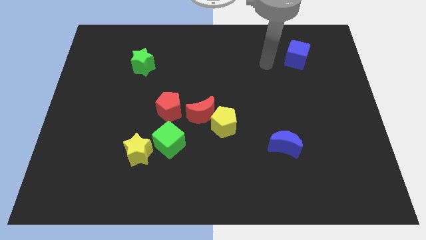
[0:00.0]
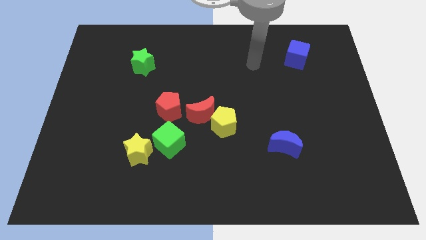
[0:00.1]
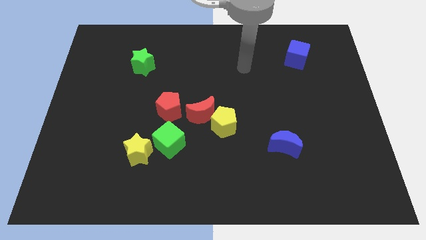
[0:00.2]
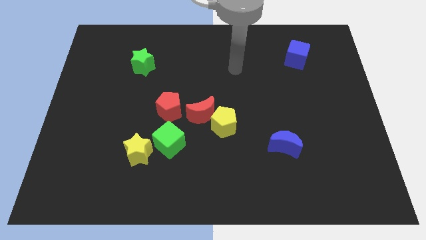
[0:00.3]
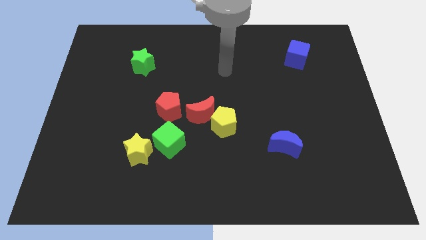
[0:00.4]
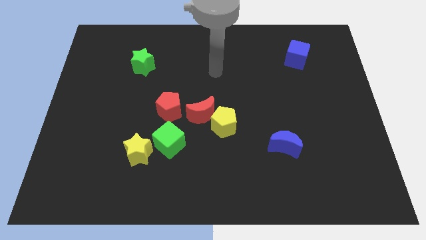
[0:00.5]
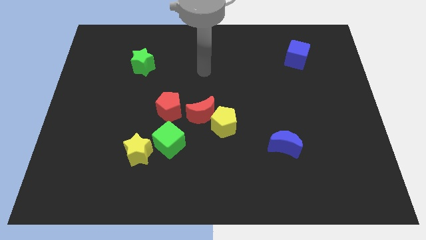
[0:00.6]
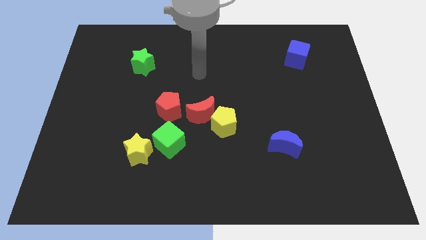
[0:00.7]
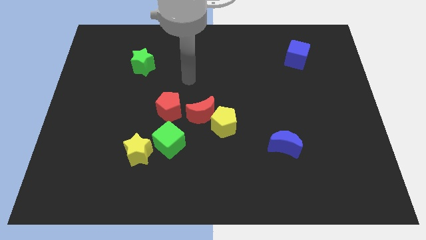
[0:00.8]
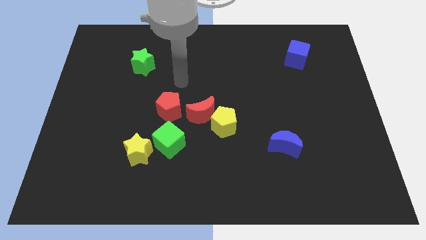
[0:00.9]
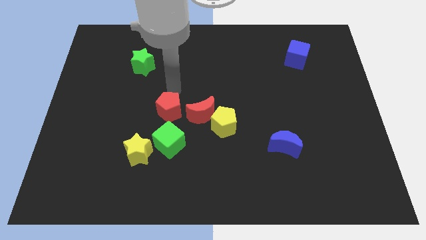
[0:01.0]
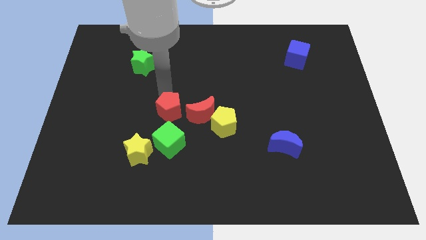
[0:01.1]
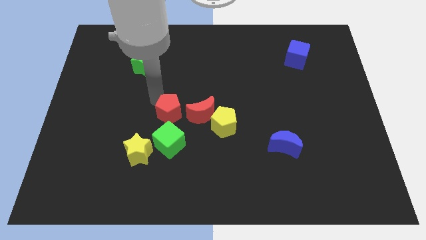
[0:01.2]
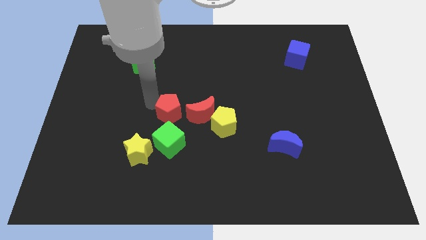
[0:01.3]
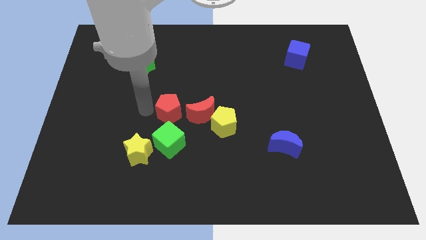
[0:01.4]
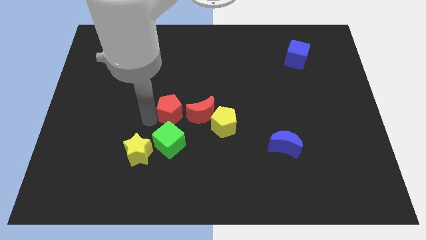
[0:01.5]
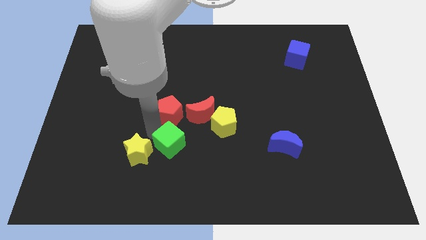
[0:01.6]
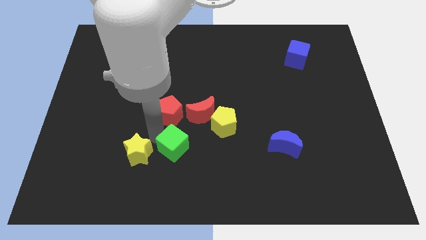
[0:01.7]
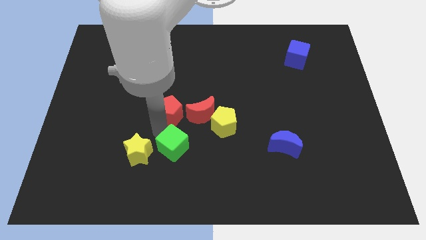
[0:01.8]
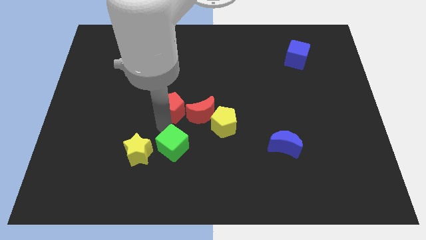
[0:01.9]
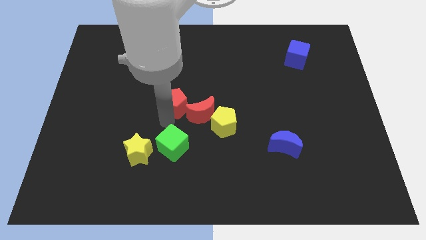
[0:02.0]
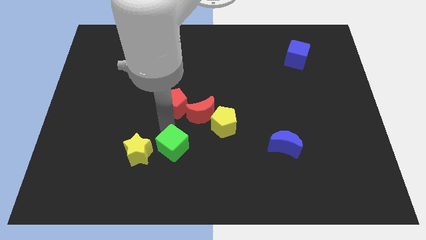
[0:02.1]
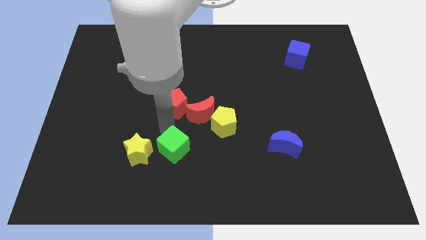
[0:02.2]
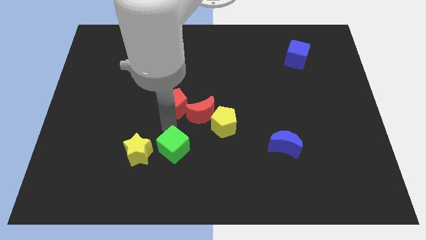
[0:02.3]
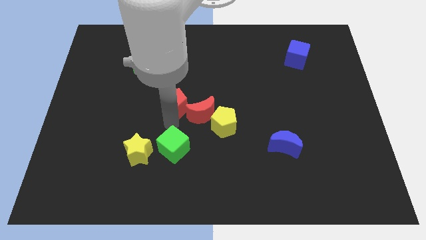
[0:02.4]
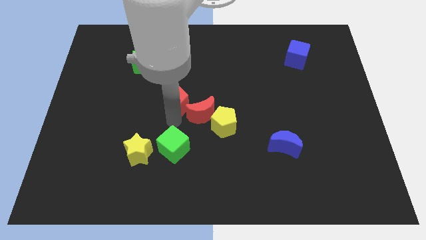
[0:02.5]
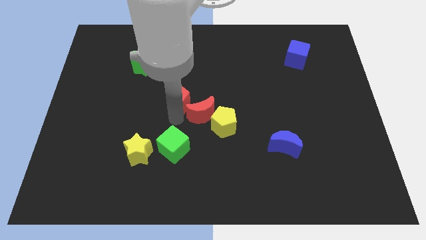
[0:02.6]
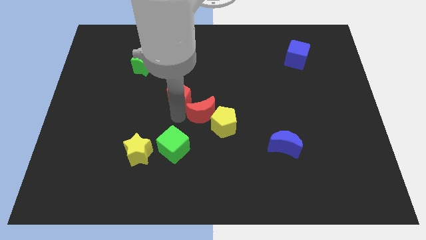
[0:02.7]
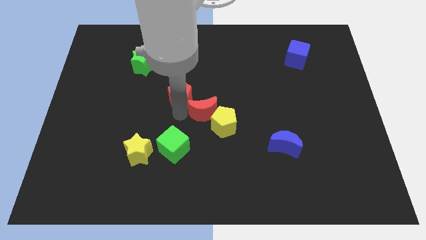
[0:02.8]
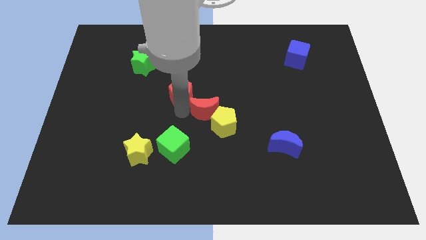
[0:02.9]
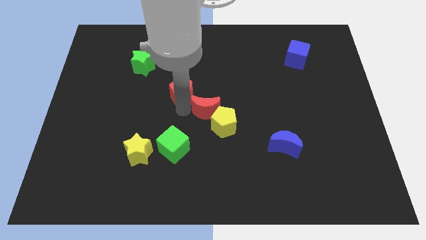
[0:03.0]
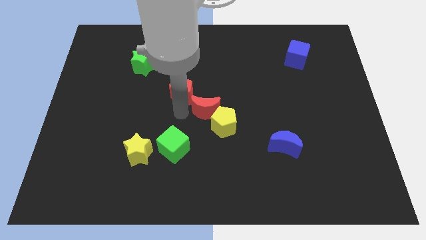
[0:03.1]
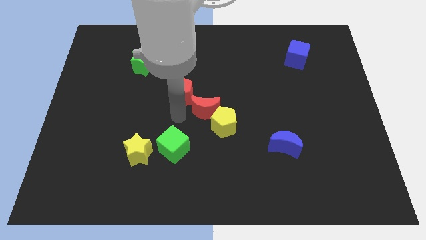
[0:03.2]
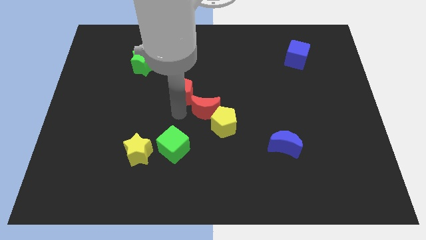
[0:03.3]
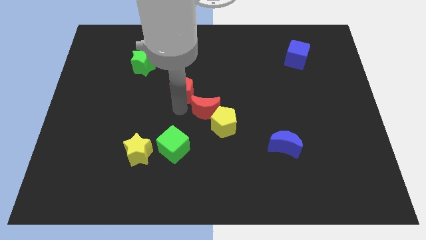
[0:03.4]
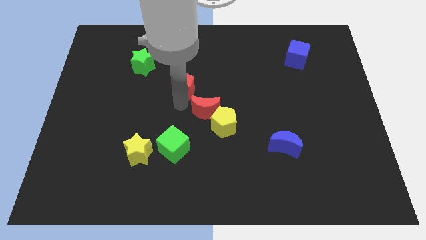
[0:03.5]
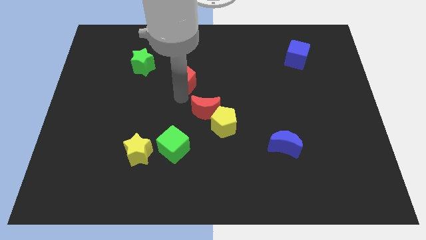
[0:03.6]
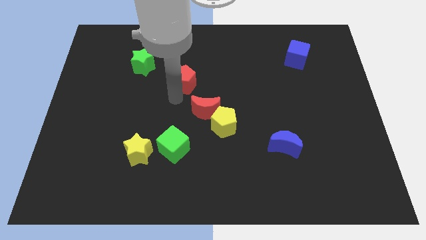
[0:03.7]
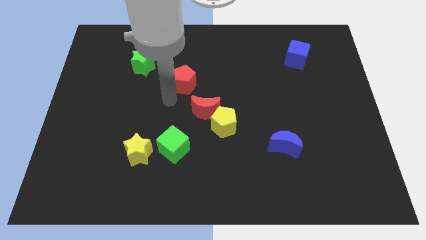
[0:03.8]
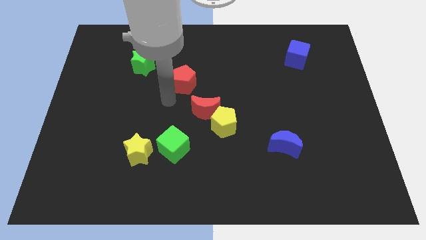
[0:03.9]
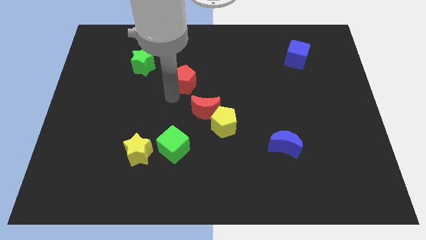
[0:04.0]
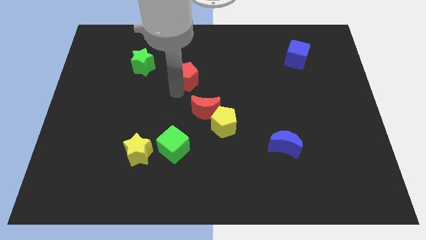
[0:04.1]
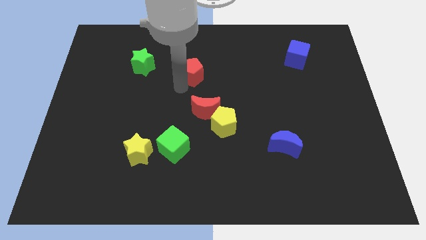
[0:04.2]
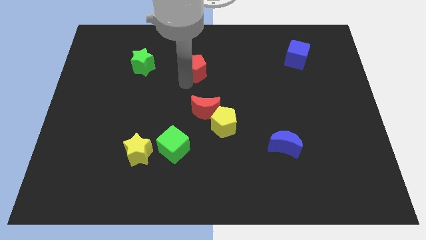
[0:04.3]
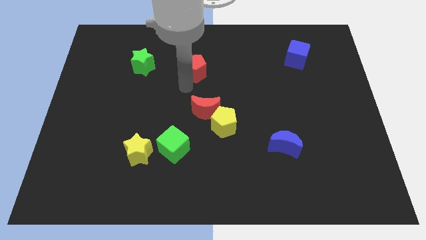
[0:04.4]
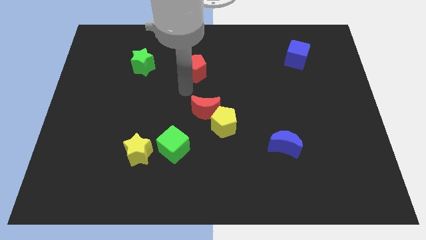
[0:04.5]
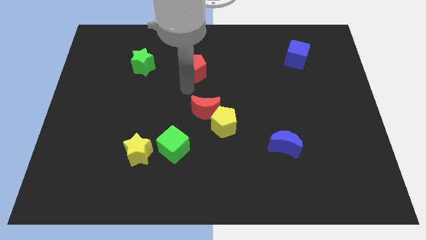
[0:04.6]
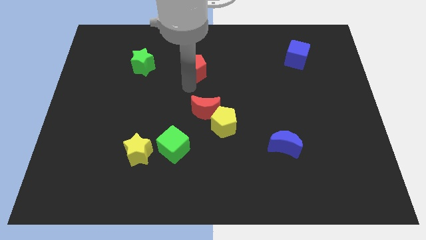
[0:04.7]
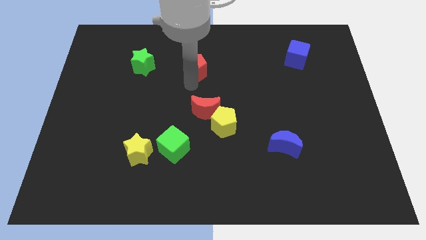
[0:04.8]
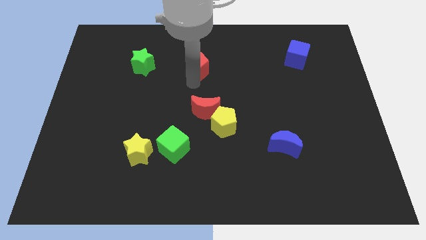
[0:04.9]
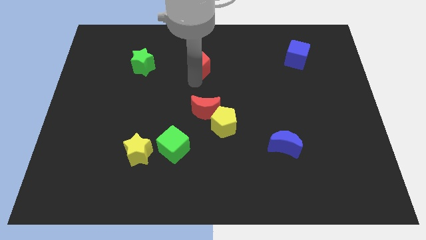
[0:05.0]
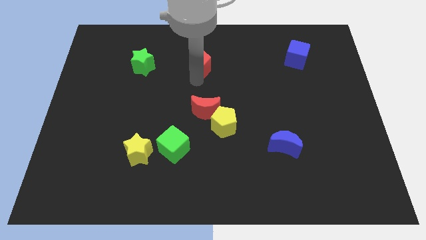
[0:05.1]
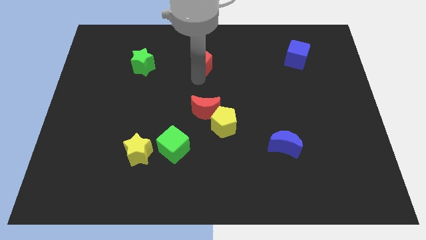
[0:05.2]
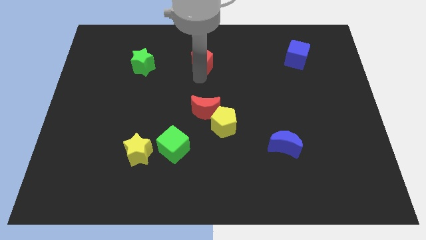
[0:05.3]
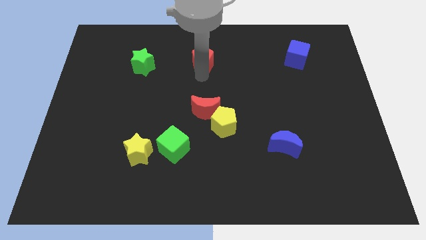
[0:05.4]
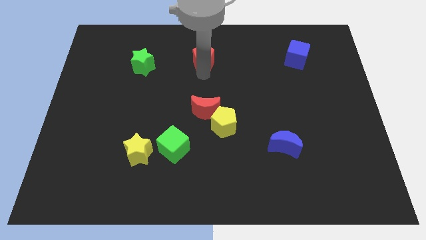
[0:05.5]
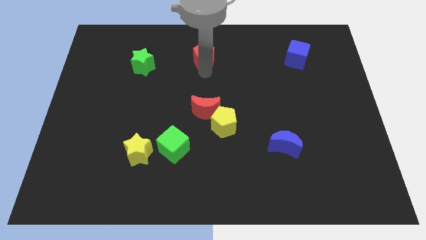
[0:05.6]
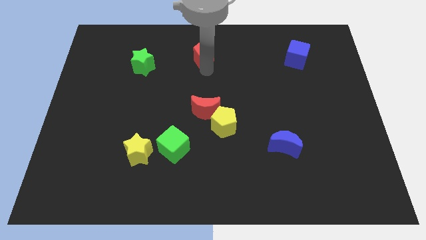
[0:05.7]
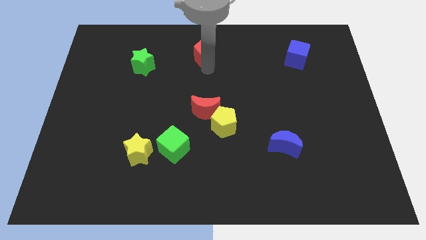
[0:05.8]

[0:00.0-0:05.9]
move the red pentagon to the top

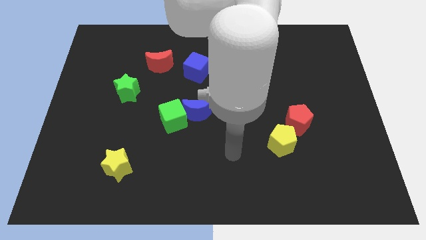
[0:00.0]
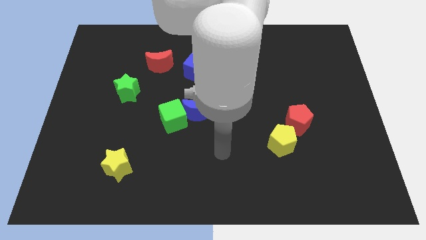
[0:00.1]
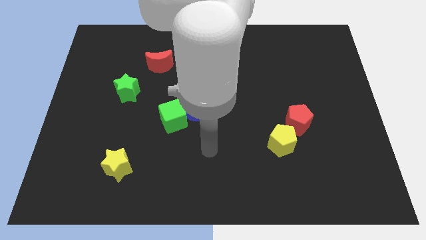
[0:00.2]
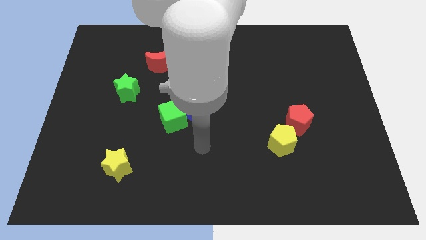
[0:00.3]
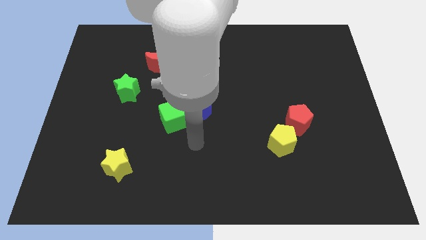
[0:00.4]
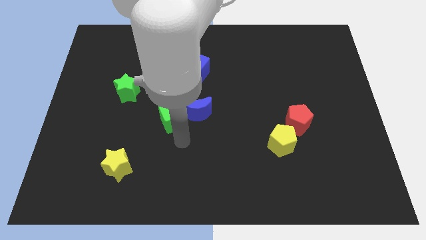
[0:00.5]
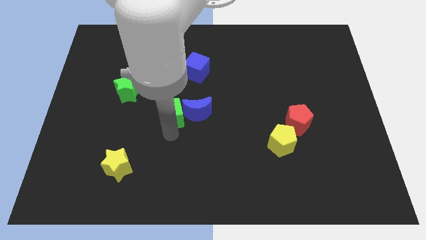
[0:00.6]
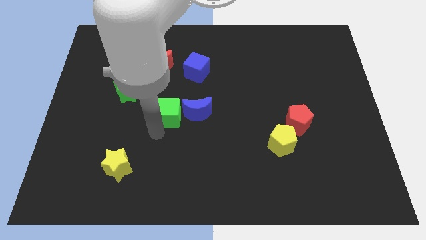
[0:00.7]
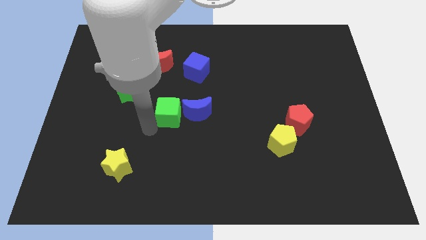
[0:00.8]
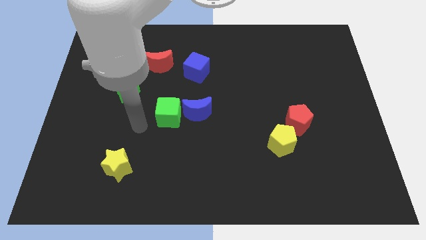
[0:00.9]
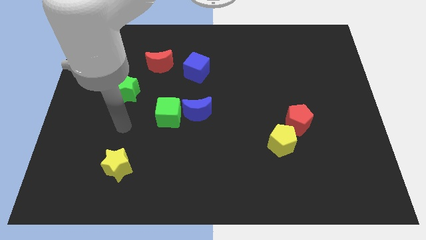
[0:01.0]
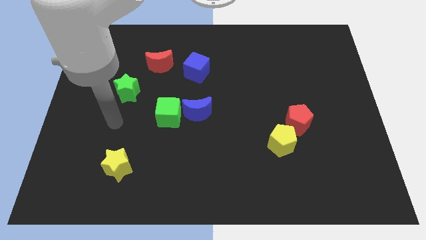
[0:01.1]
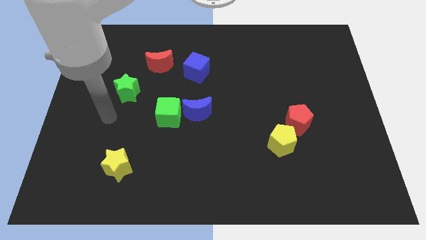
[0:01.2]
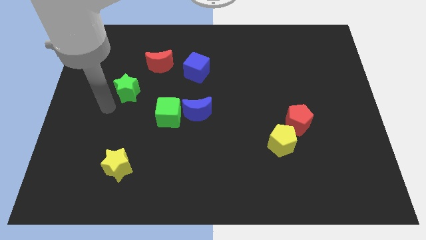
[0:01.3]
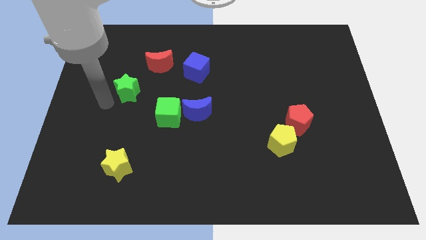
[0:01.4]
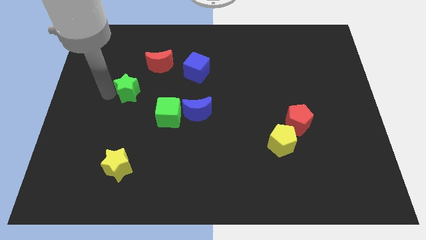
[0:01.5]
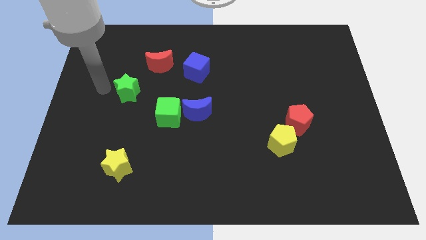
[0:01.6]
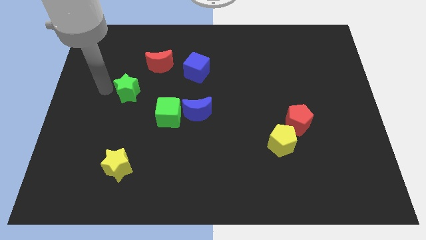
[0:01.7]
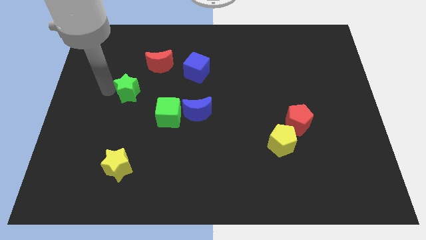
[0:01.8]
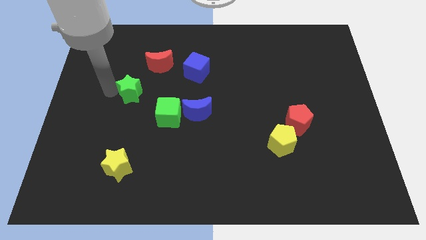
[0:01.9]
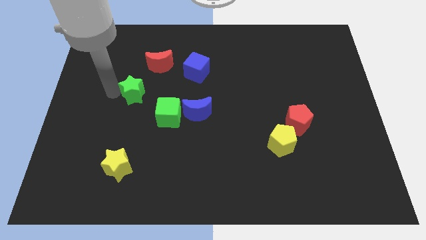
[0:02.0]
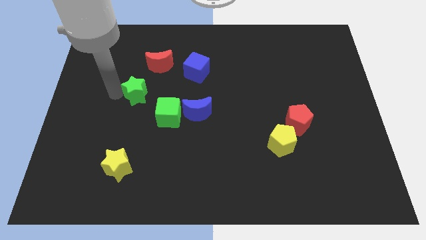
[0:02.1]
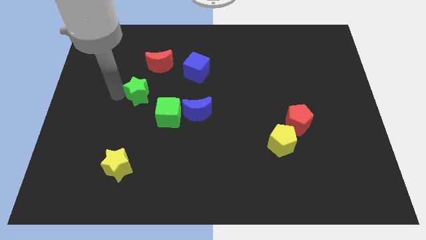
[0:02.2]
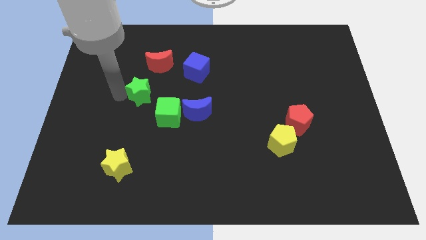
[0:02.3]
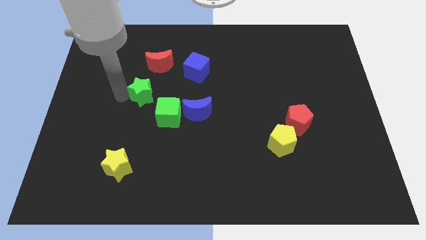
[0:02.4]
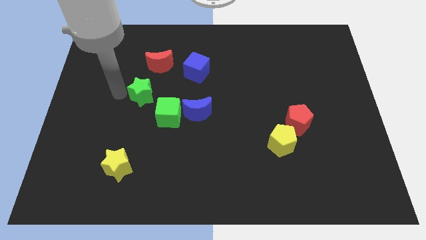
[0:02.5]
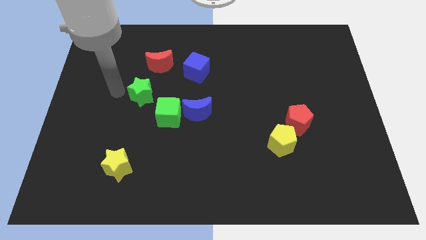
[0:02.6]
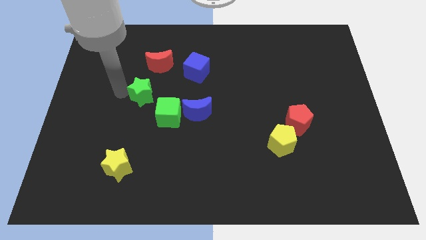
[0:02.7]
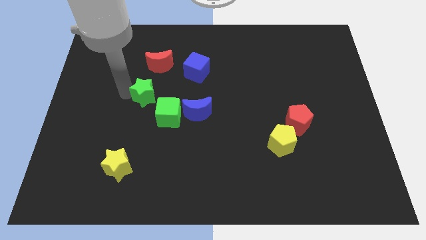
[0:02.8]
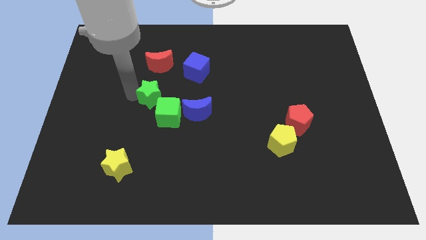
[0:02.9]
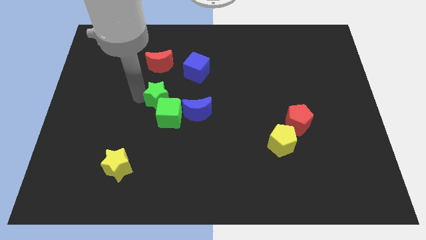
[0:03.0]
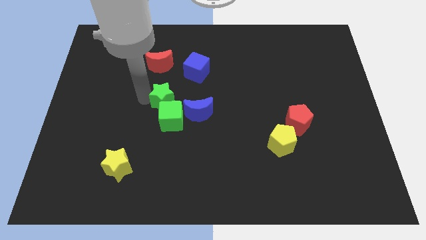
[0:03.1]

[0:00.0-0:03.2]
move the green star to the center
